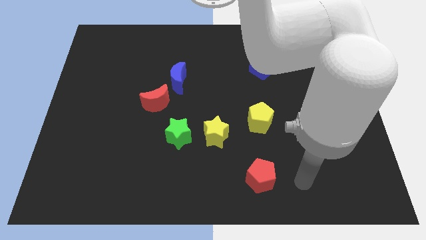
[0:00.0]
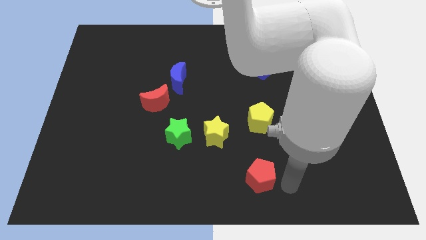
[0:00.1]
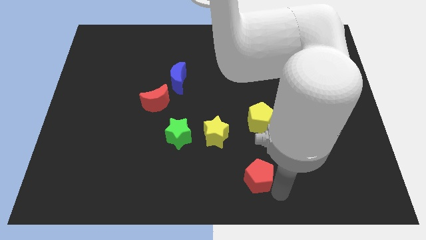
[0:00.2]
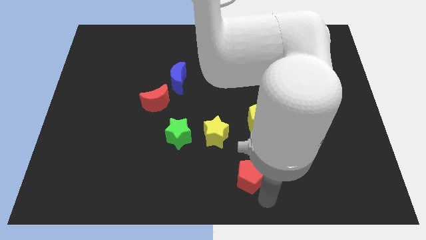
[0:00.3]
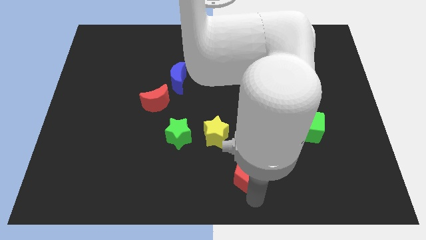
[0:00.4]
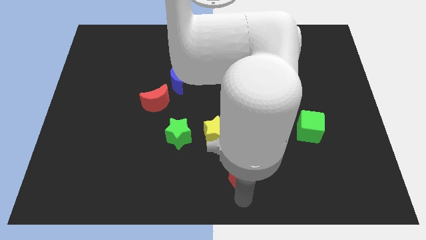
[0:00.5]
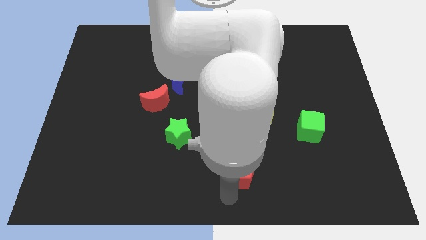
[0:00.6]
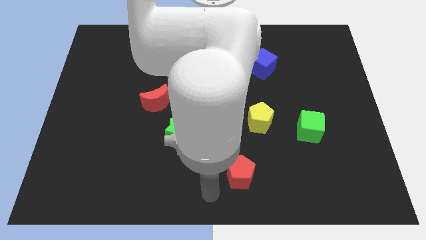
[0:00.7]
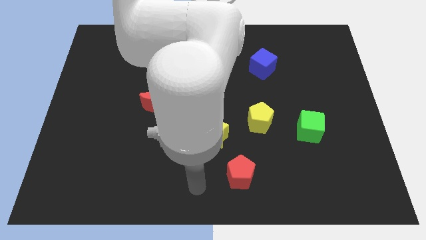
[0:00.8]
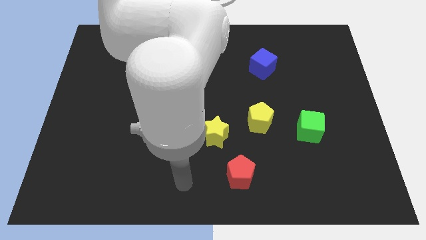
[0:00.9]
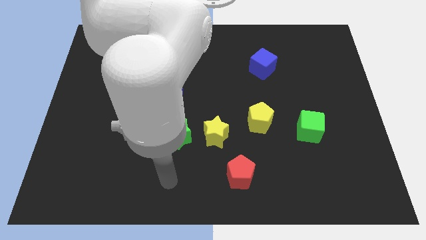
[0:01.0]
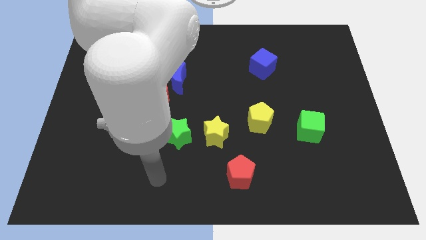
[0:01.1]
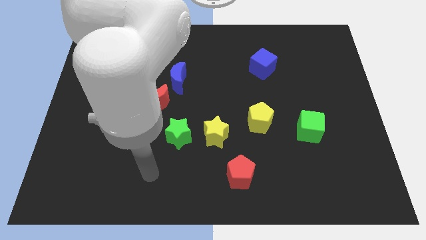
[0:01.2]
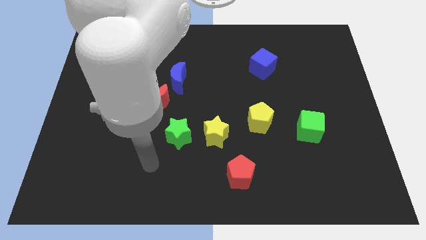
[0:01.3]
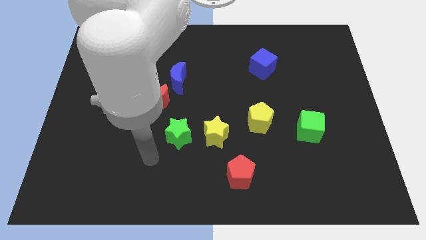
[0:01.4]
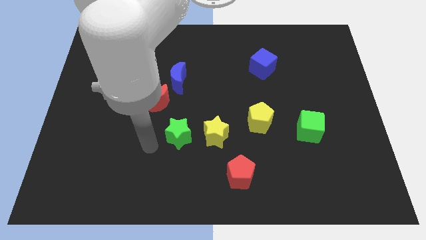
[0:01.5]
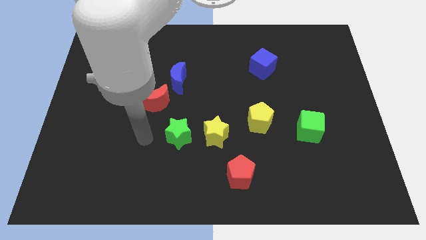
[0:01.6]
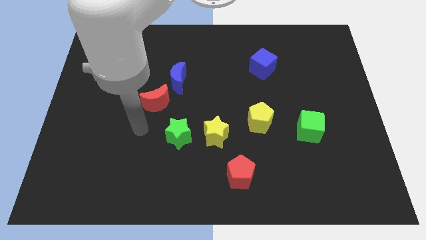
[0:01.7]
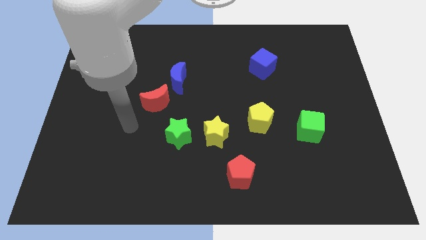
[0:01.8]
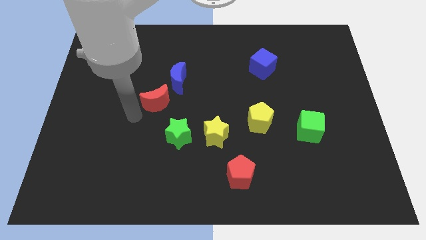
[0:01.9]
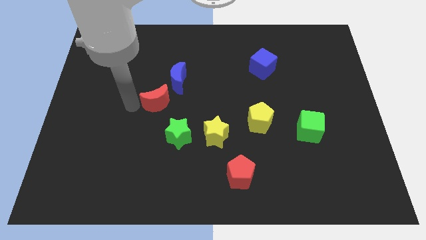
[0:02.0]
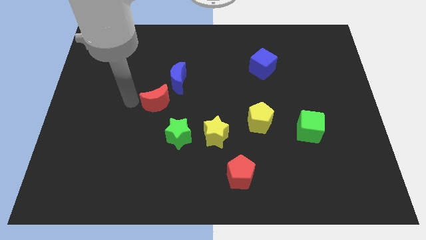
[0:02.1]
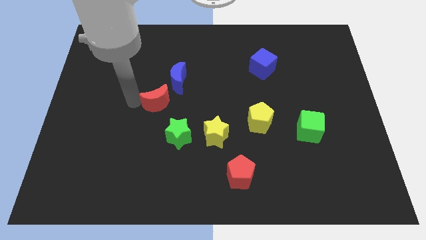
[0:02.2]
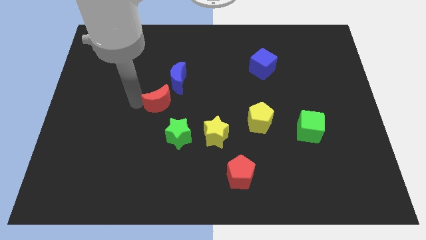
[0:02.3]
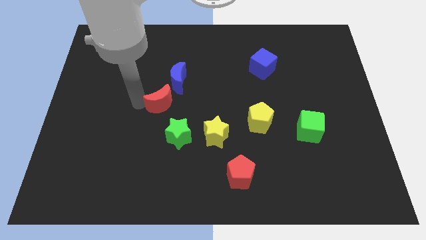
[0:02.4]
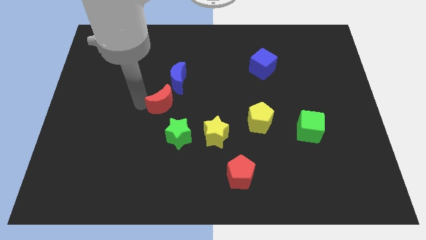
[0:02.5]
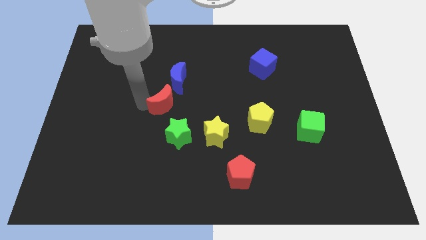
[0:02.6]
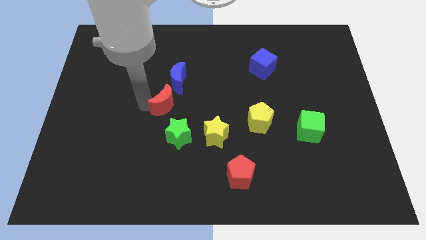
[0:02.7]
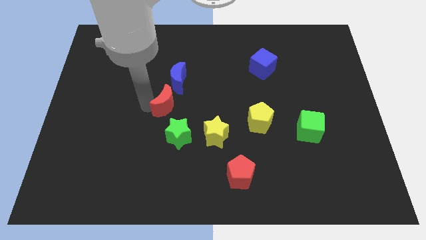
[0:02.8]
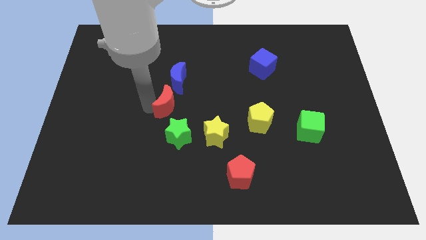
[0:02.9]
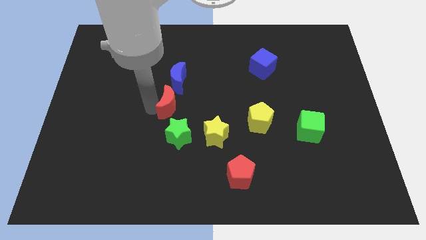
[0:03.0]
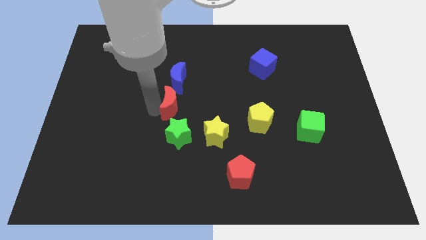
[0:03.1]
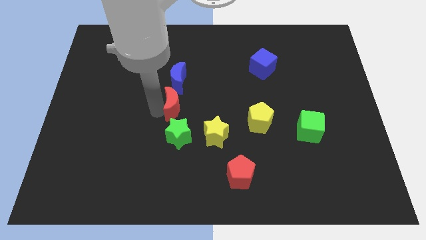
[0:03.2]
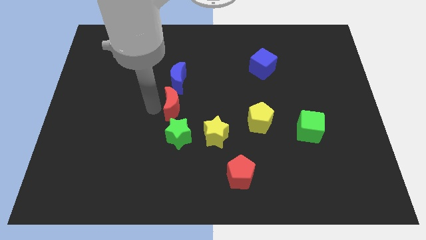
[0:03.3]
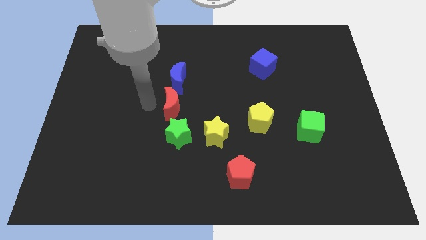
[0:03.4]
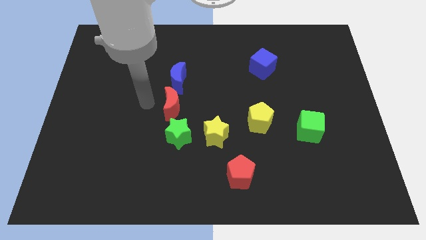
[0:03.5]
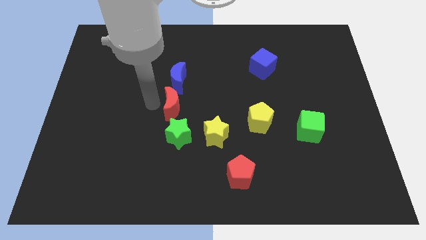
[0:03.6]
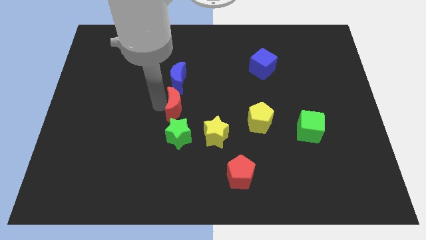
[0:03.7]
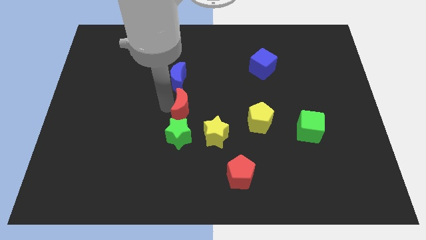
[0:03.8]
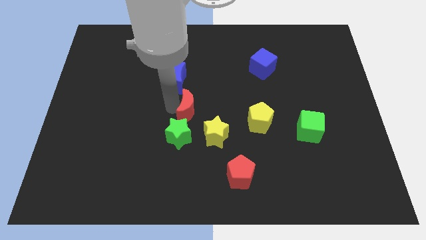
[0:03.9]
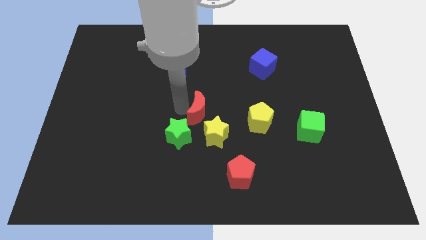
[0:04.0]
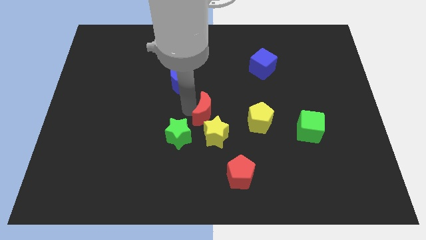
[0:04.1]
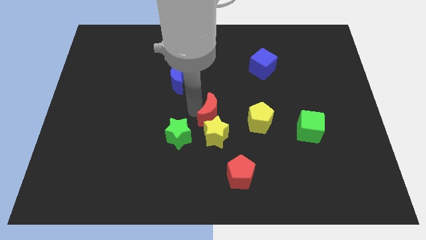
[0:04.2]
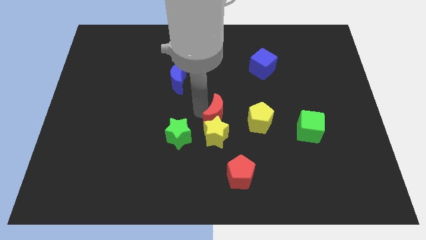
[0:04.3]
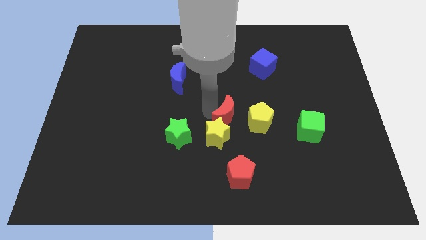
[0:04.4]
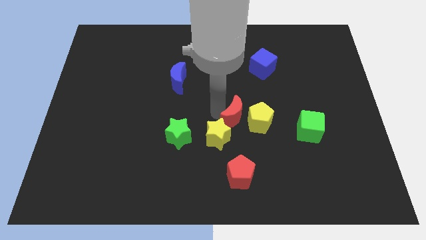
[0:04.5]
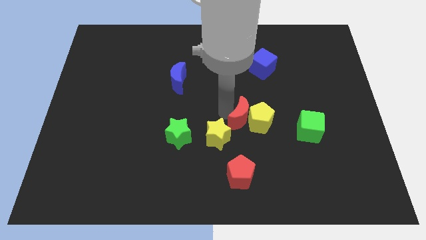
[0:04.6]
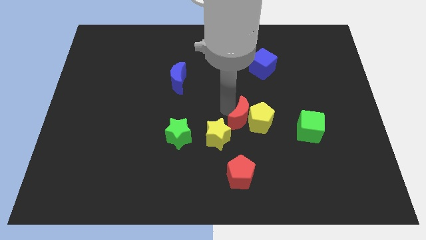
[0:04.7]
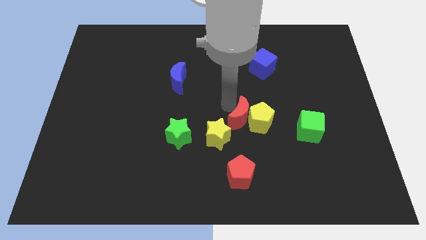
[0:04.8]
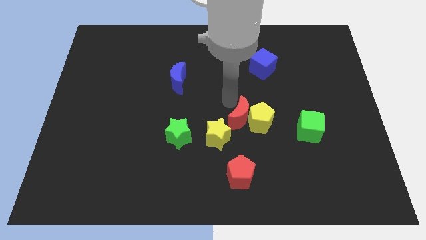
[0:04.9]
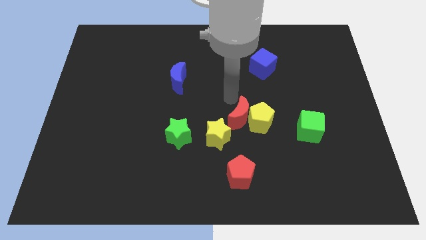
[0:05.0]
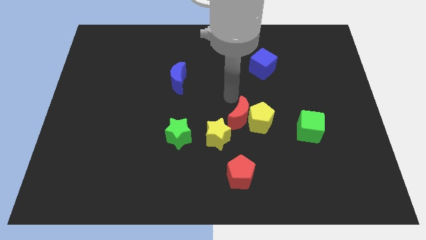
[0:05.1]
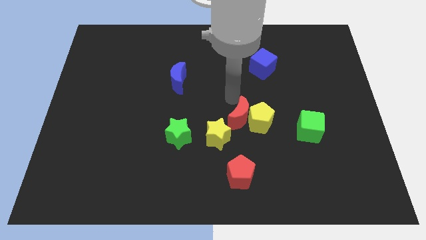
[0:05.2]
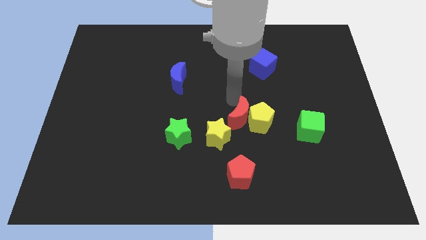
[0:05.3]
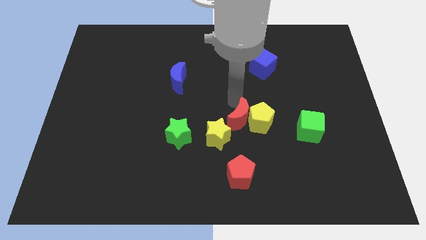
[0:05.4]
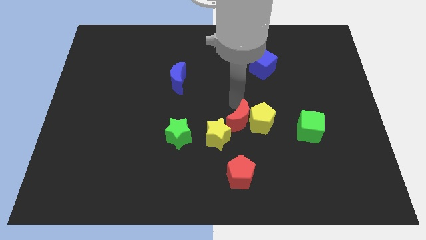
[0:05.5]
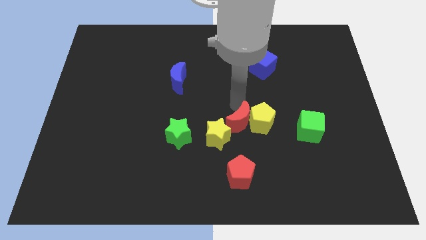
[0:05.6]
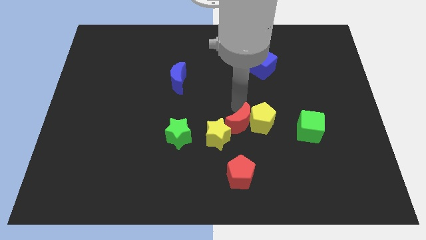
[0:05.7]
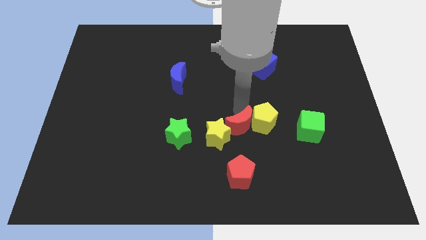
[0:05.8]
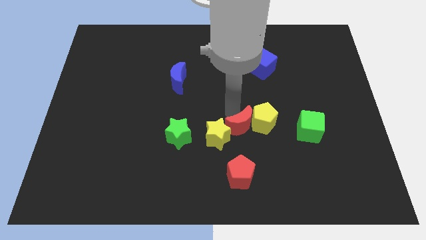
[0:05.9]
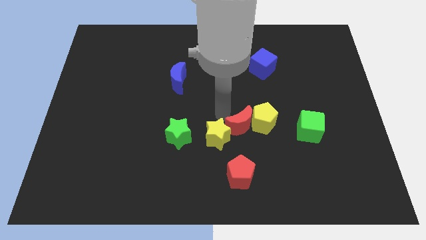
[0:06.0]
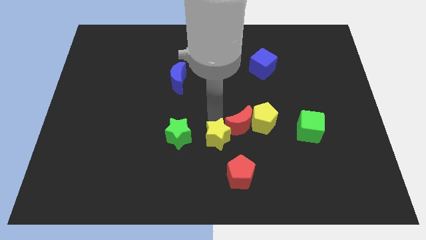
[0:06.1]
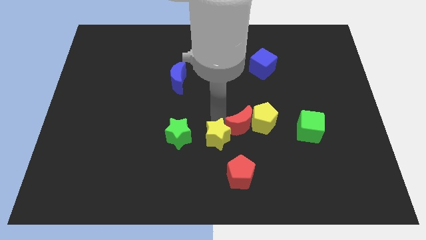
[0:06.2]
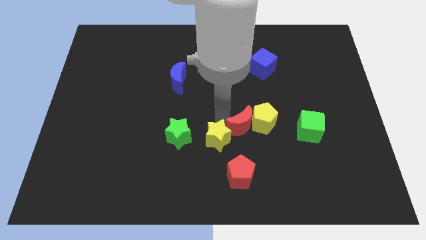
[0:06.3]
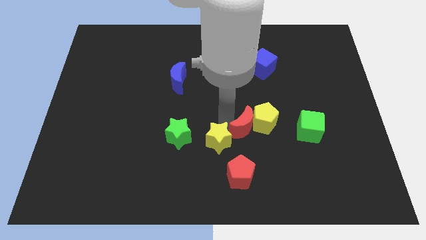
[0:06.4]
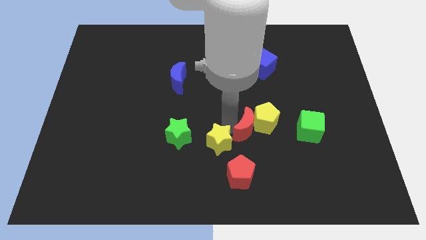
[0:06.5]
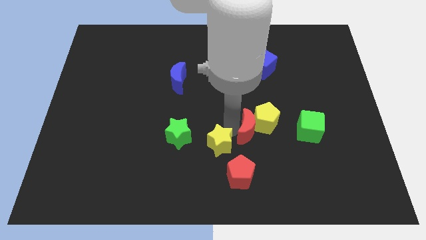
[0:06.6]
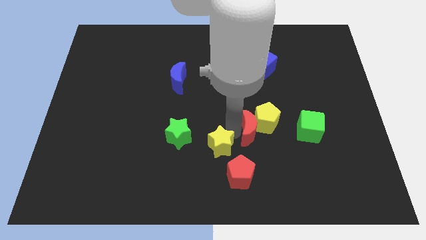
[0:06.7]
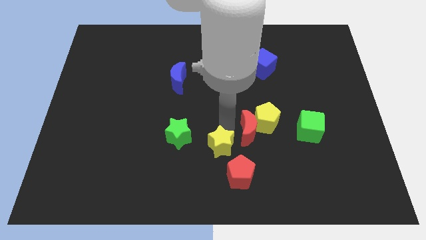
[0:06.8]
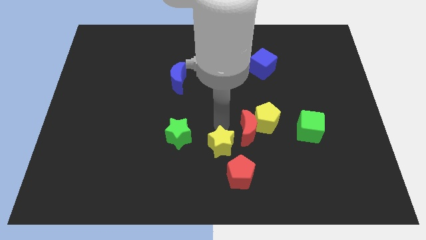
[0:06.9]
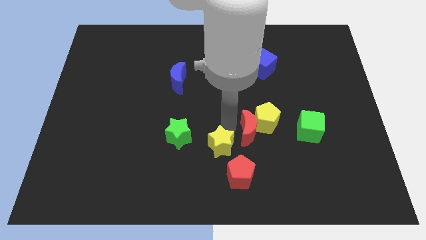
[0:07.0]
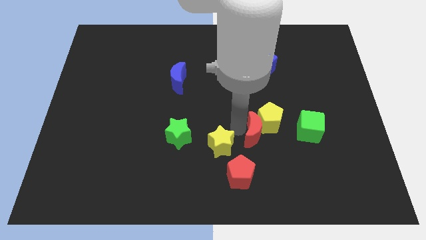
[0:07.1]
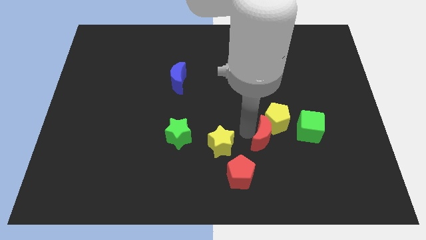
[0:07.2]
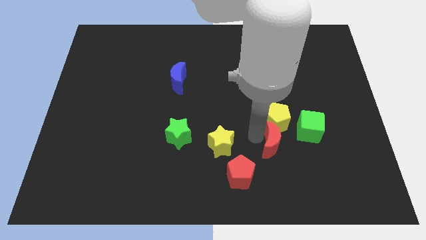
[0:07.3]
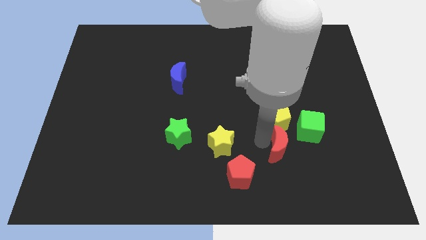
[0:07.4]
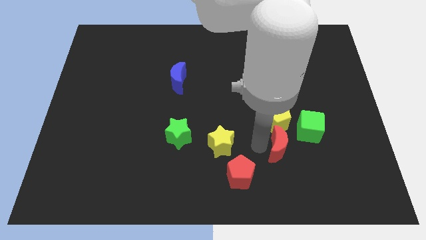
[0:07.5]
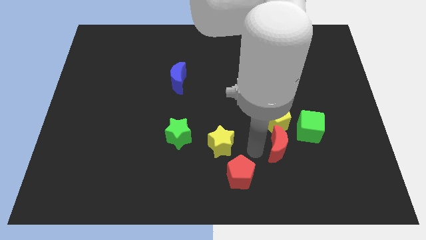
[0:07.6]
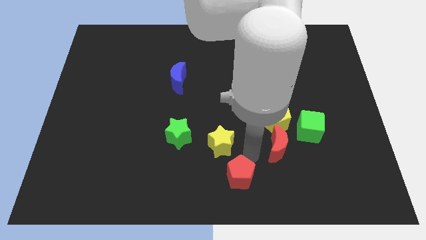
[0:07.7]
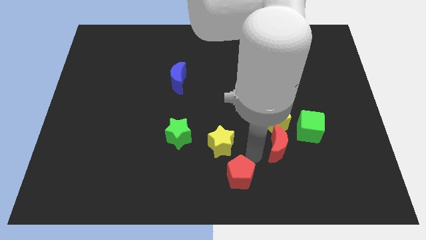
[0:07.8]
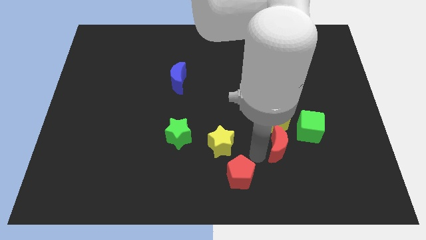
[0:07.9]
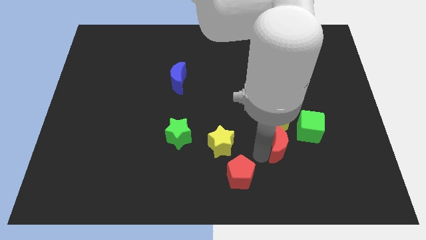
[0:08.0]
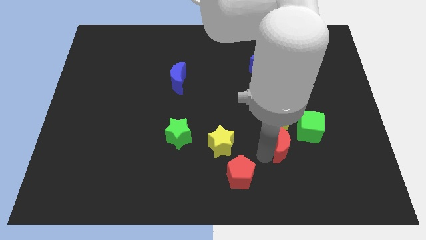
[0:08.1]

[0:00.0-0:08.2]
move the red moon to the bottom right of the yellow pentagon
